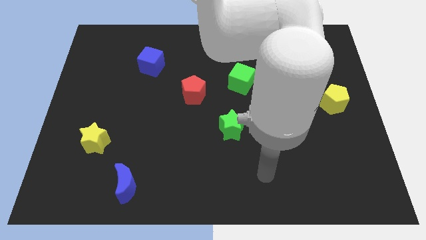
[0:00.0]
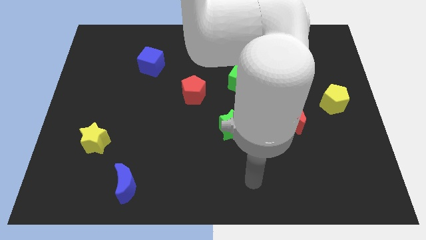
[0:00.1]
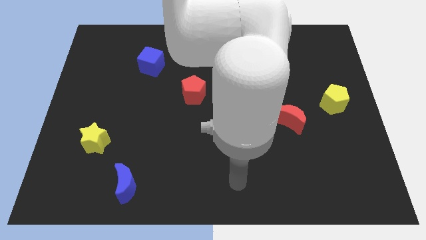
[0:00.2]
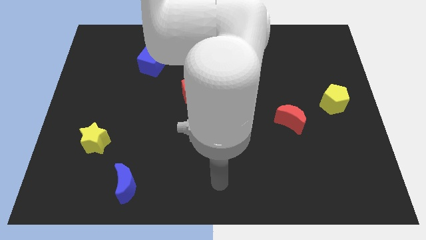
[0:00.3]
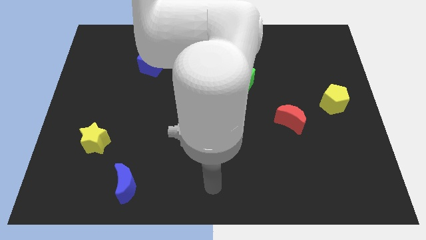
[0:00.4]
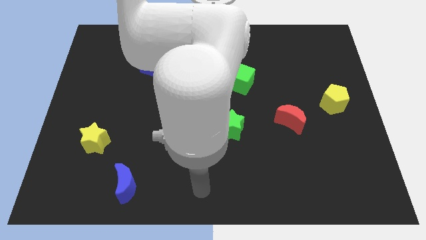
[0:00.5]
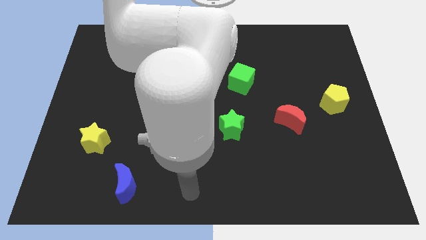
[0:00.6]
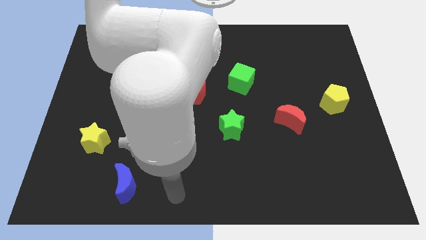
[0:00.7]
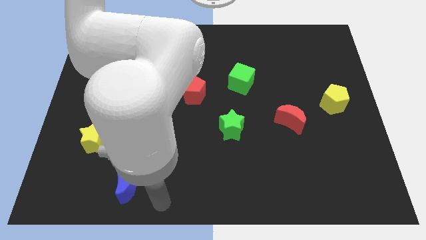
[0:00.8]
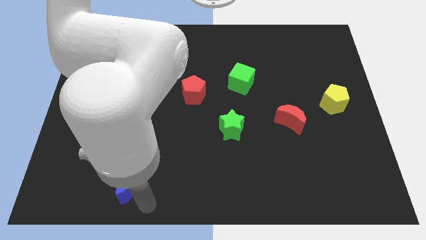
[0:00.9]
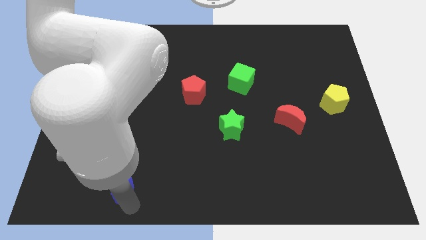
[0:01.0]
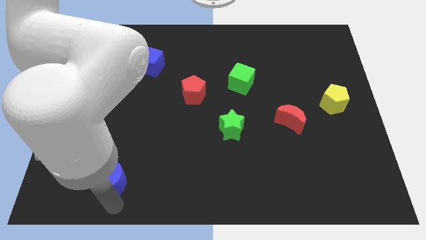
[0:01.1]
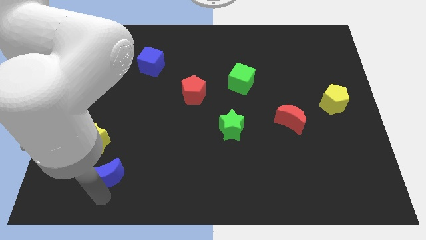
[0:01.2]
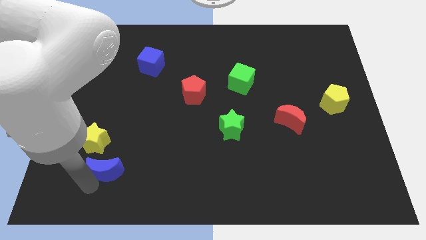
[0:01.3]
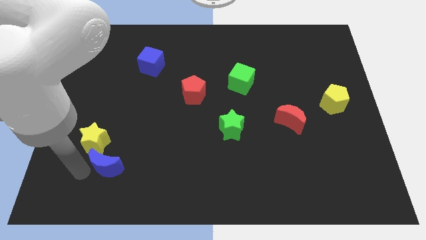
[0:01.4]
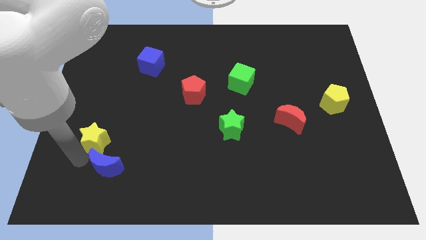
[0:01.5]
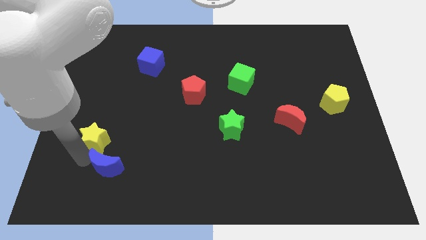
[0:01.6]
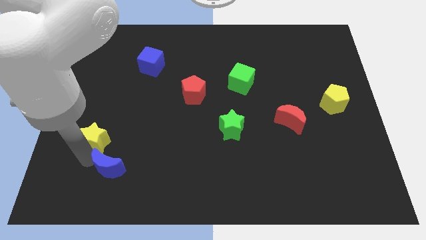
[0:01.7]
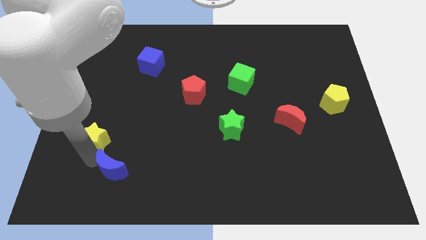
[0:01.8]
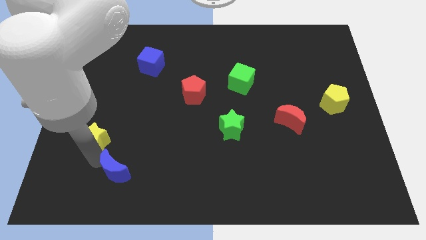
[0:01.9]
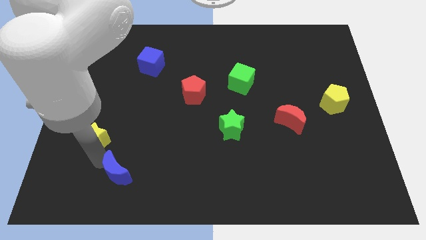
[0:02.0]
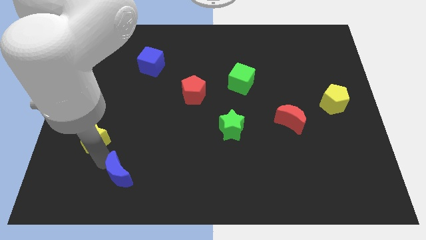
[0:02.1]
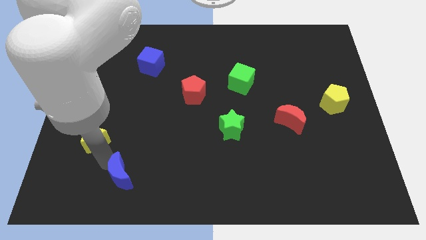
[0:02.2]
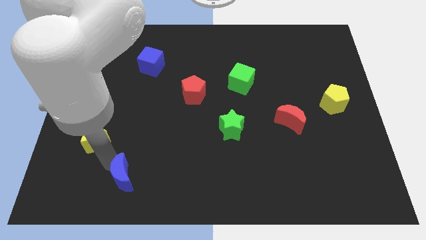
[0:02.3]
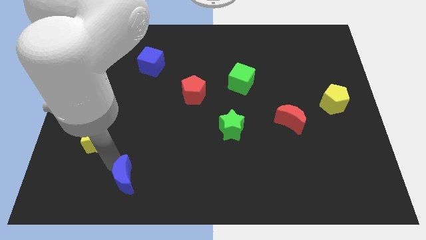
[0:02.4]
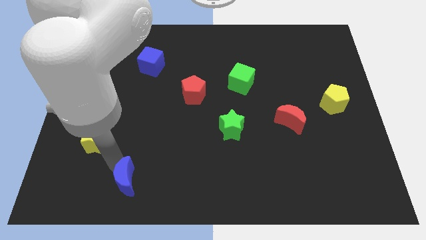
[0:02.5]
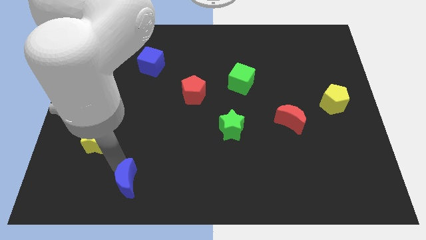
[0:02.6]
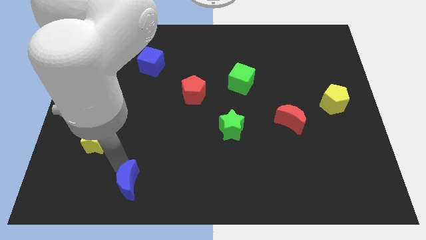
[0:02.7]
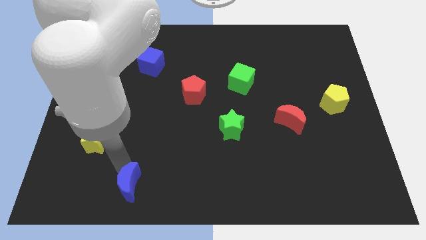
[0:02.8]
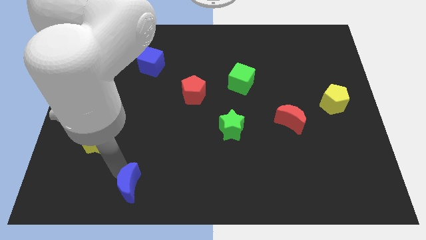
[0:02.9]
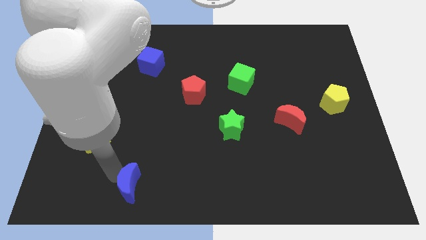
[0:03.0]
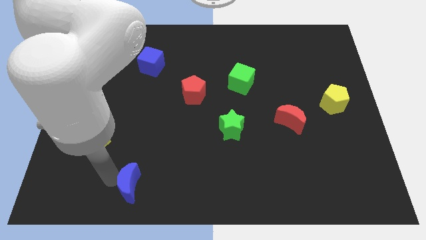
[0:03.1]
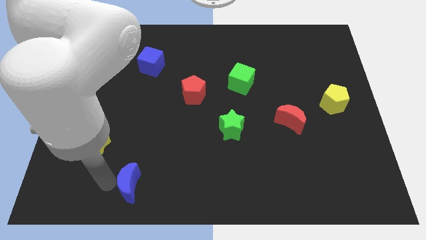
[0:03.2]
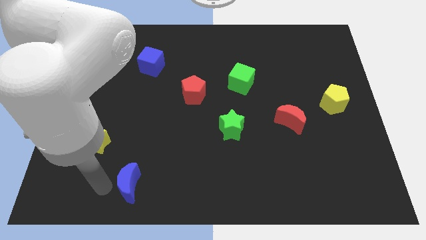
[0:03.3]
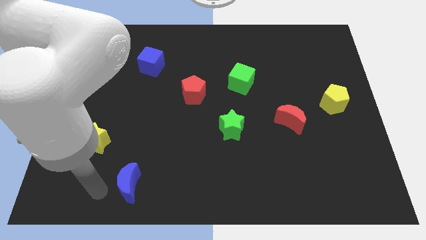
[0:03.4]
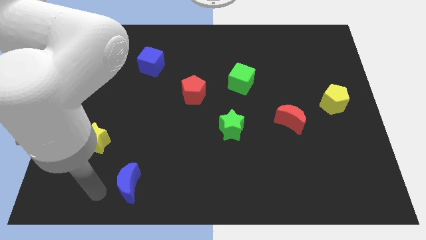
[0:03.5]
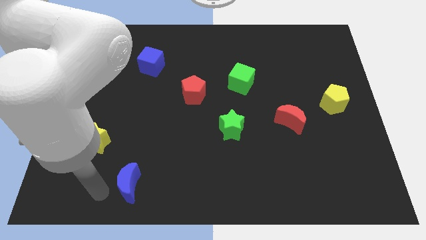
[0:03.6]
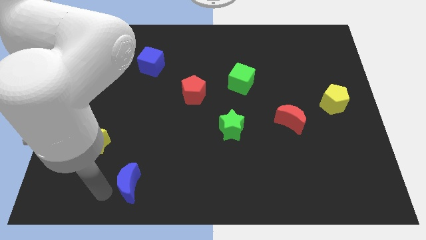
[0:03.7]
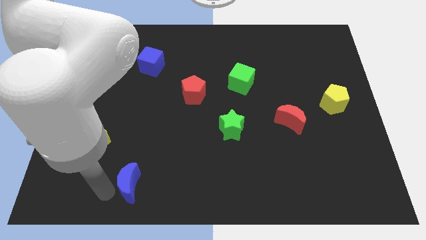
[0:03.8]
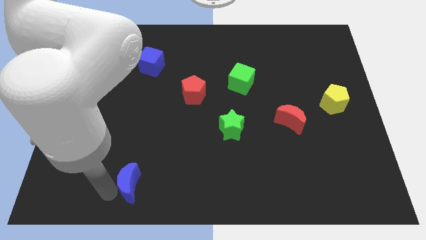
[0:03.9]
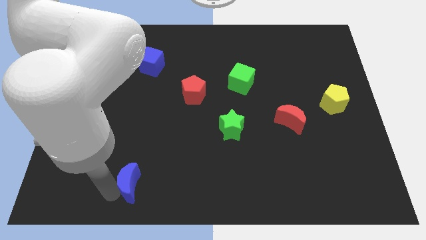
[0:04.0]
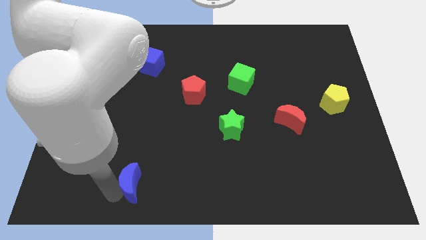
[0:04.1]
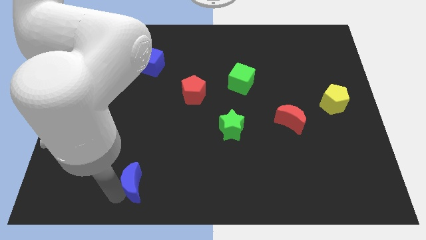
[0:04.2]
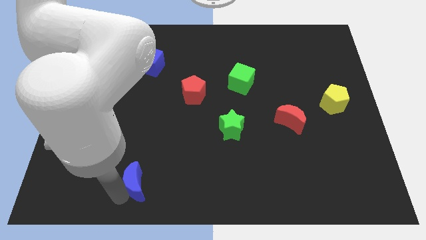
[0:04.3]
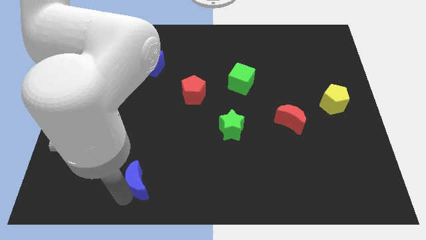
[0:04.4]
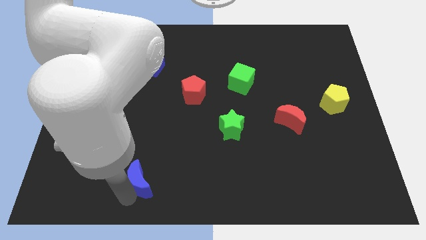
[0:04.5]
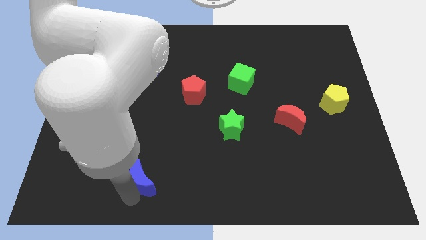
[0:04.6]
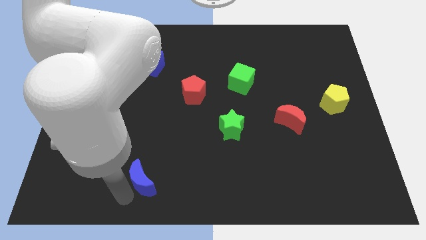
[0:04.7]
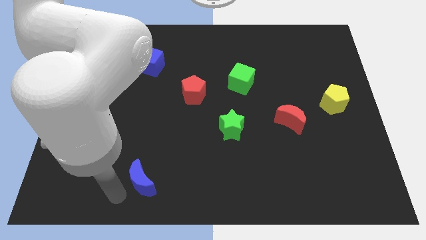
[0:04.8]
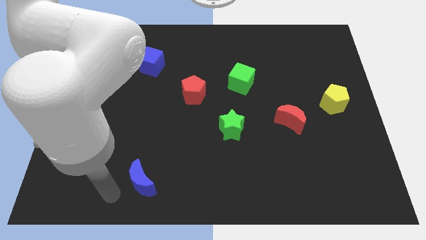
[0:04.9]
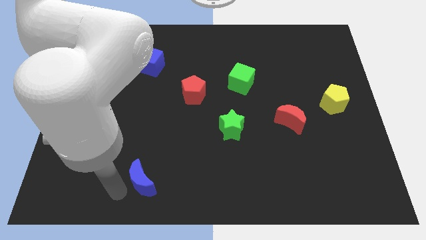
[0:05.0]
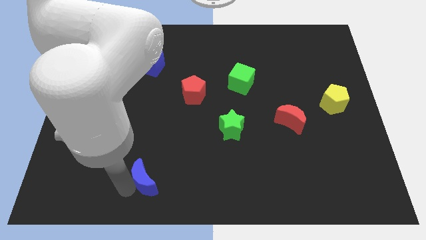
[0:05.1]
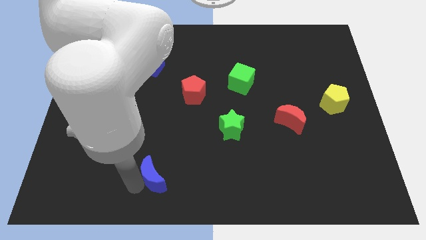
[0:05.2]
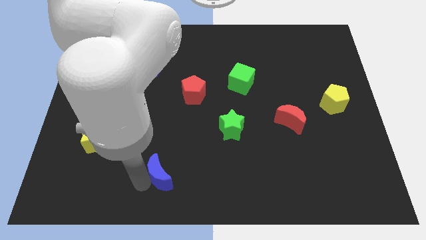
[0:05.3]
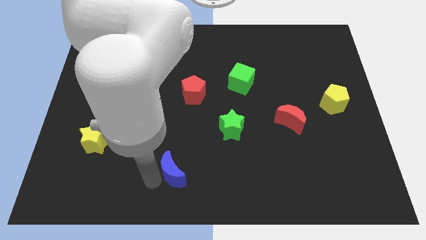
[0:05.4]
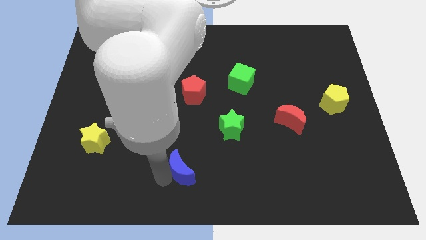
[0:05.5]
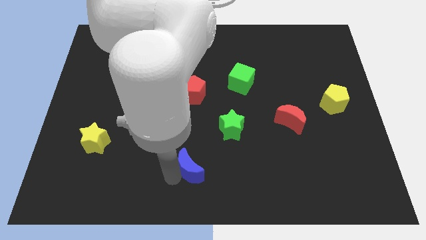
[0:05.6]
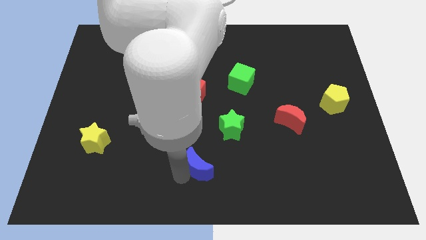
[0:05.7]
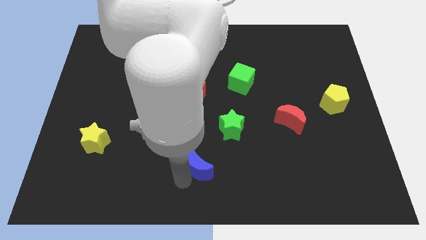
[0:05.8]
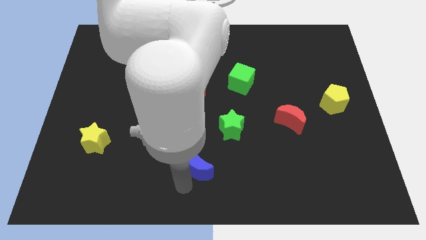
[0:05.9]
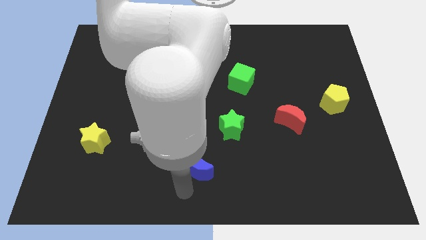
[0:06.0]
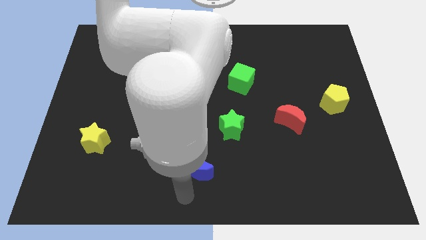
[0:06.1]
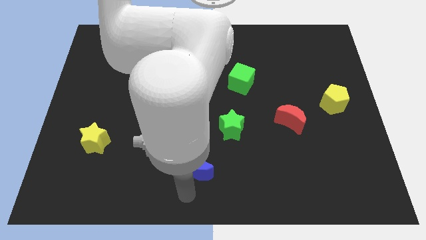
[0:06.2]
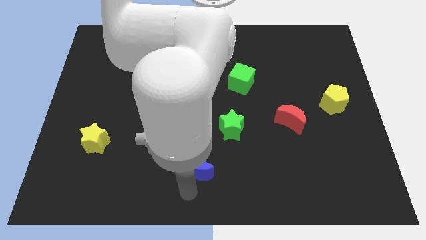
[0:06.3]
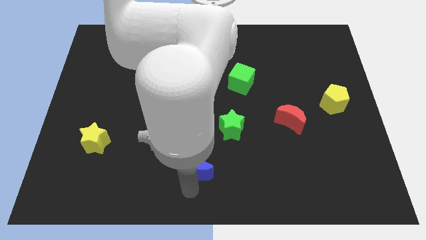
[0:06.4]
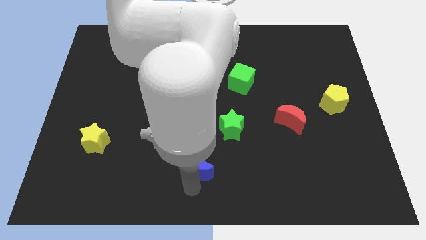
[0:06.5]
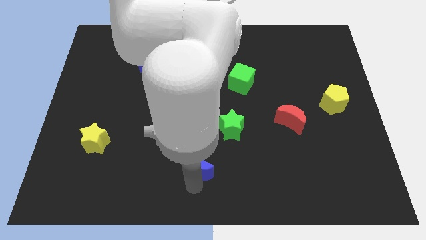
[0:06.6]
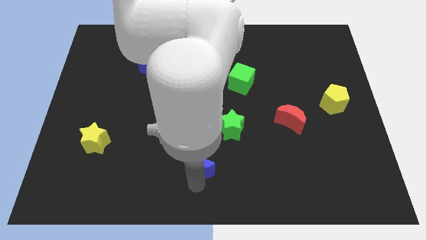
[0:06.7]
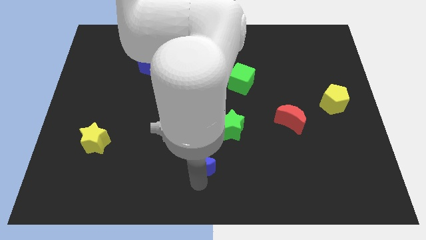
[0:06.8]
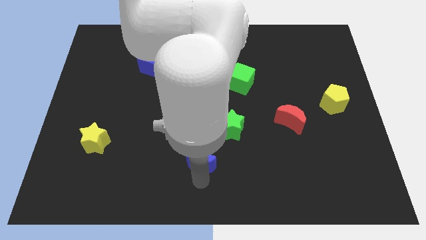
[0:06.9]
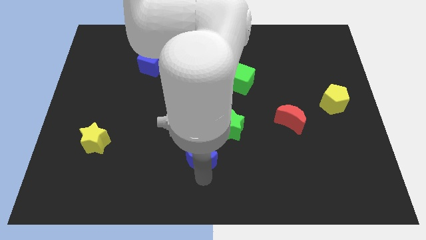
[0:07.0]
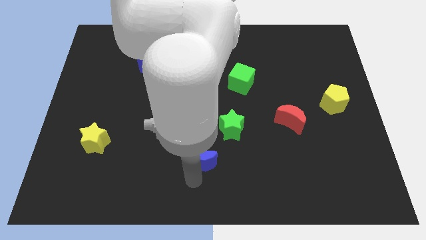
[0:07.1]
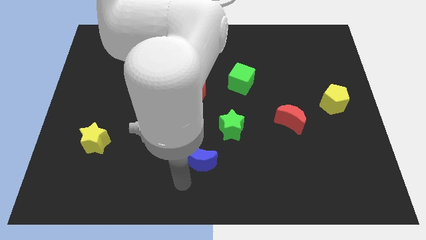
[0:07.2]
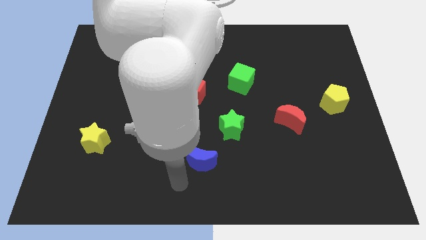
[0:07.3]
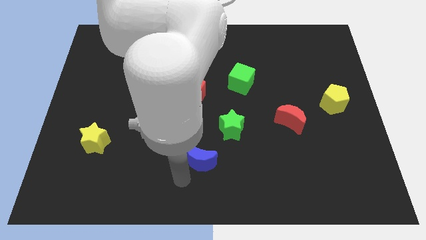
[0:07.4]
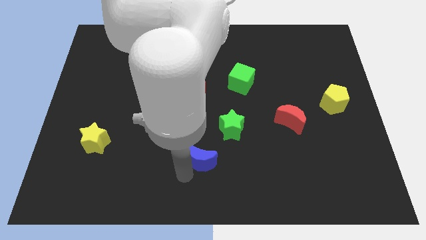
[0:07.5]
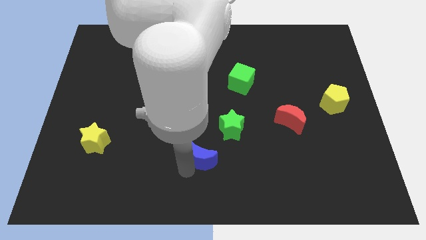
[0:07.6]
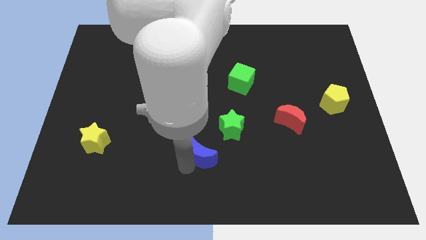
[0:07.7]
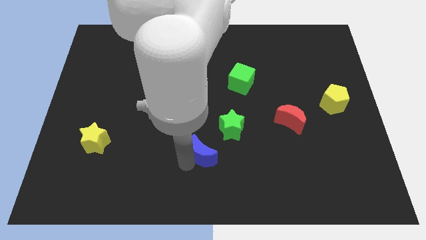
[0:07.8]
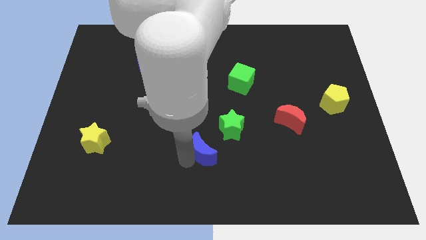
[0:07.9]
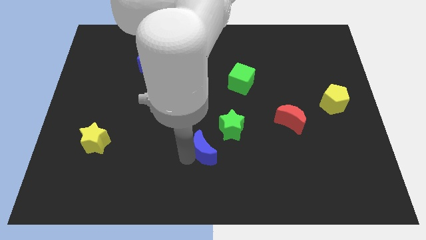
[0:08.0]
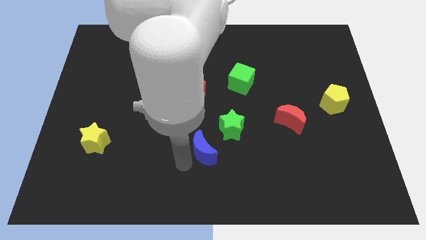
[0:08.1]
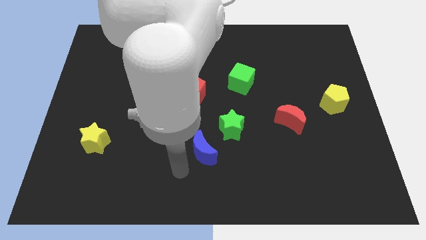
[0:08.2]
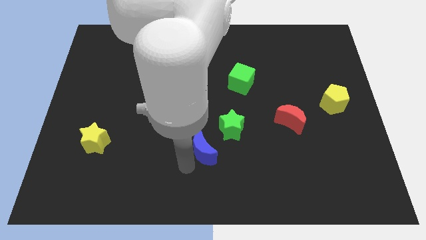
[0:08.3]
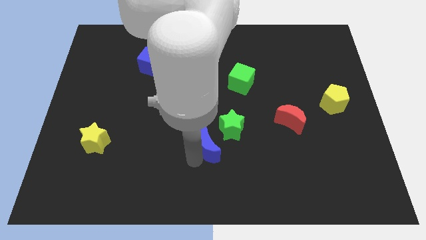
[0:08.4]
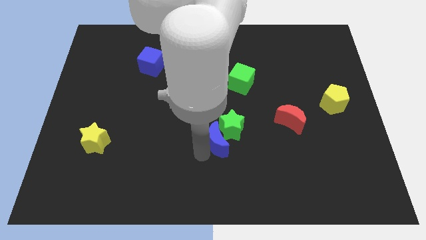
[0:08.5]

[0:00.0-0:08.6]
put the blue moon next to the green star
